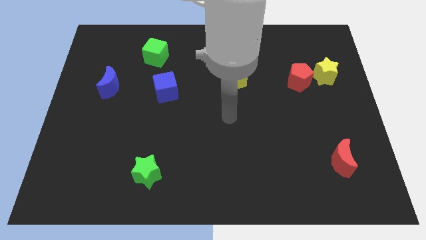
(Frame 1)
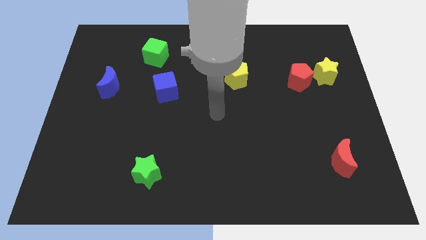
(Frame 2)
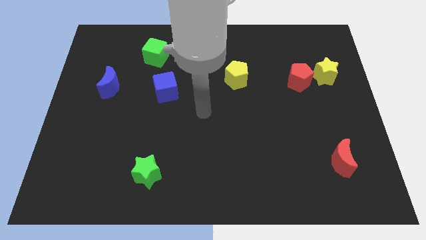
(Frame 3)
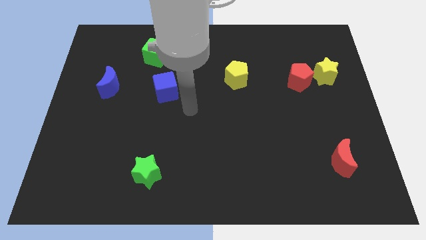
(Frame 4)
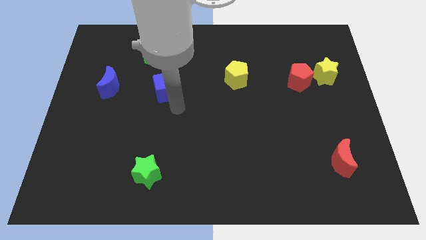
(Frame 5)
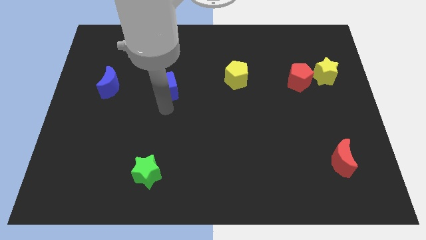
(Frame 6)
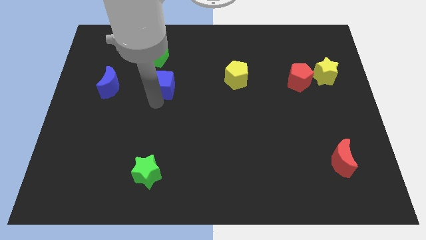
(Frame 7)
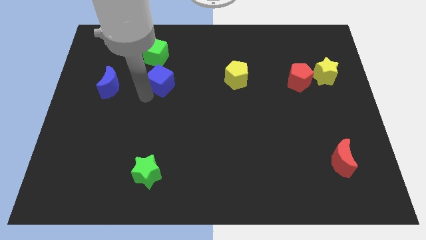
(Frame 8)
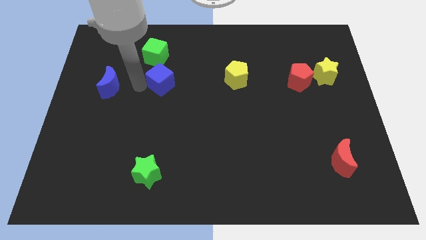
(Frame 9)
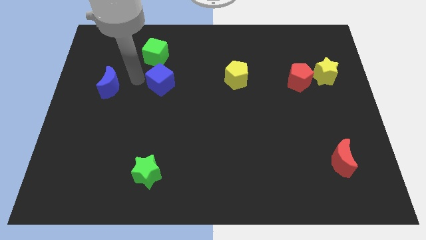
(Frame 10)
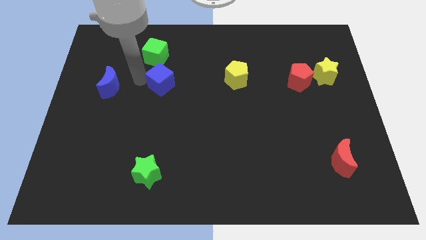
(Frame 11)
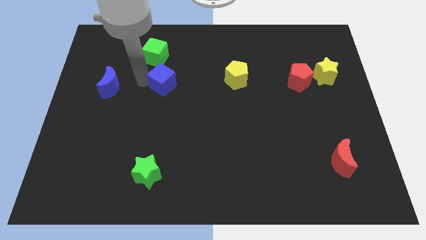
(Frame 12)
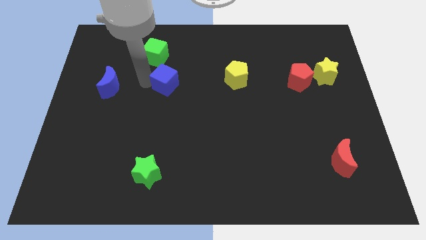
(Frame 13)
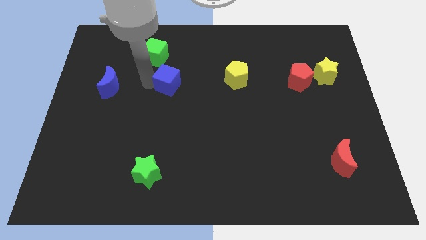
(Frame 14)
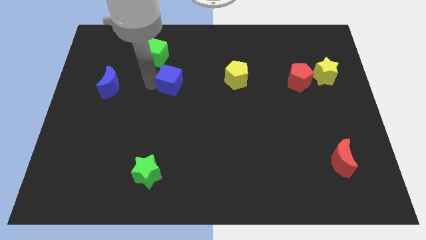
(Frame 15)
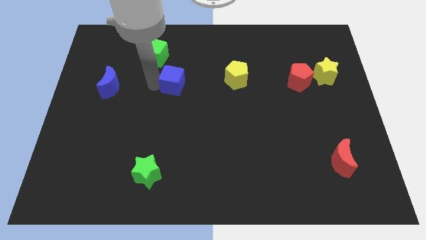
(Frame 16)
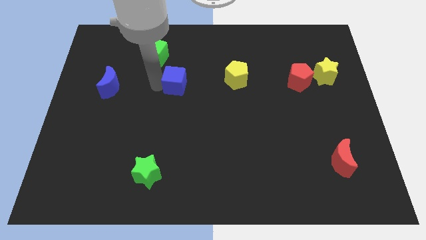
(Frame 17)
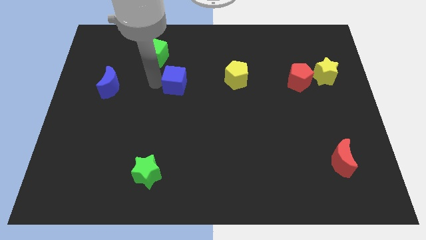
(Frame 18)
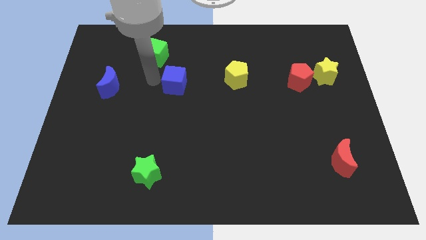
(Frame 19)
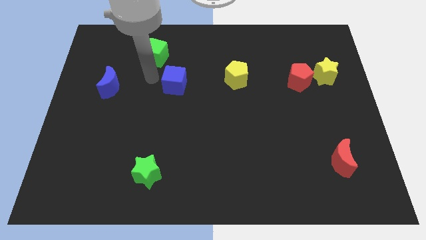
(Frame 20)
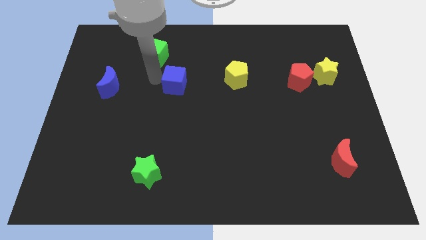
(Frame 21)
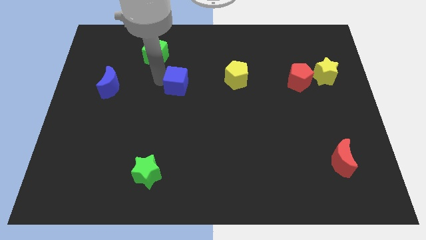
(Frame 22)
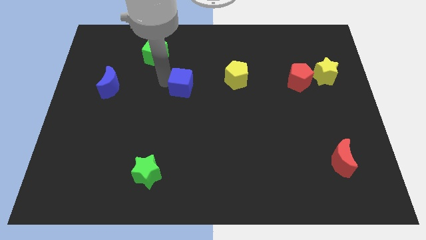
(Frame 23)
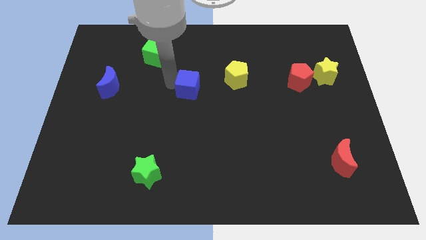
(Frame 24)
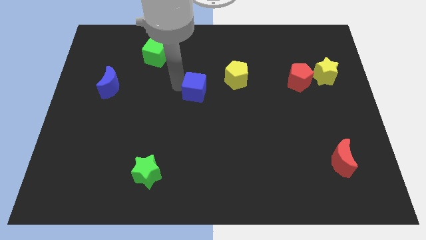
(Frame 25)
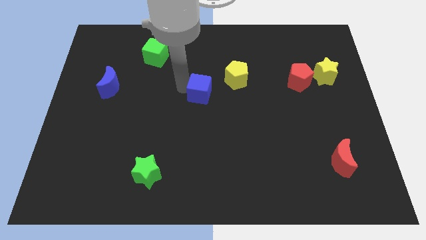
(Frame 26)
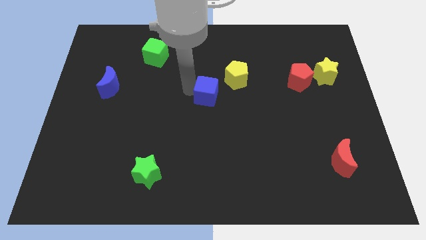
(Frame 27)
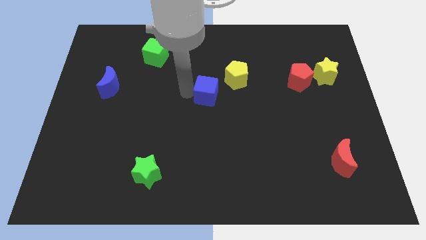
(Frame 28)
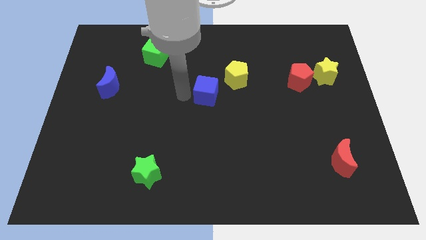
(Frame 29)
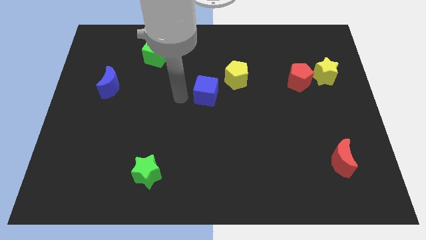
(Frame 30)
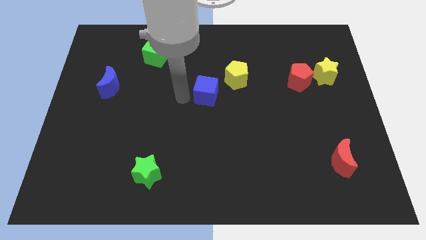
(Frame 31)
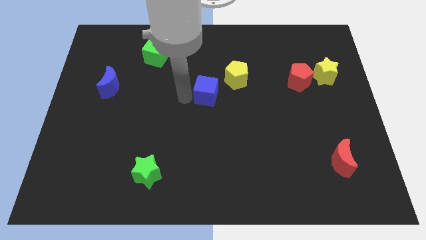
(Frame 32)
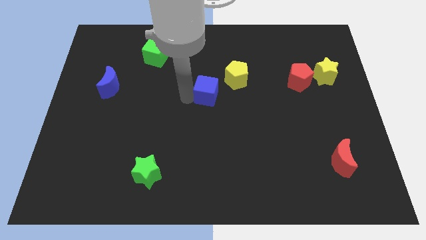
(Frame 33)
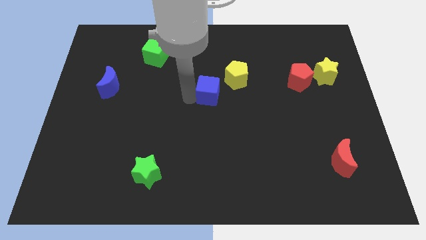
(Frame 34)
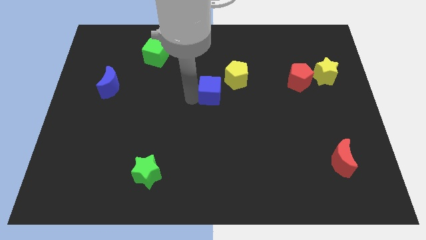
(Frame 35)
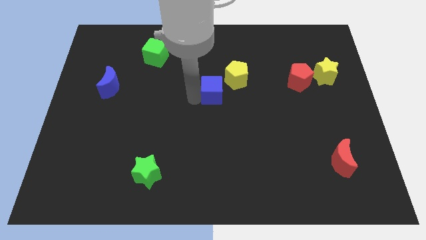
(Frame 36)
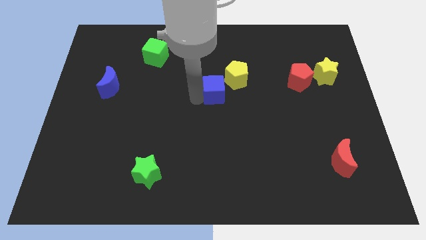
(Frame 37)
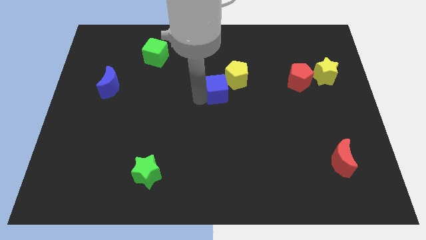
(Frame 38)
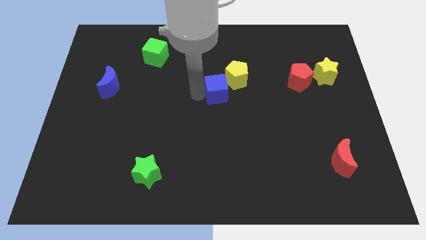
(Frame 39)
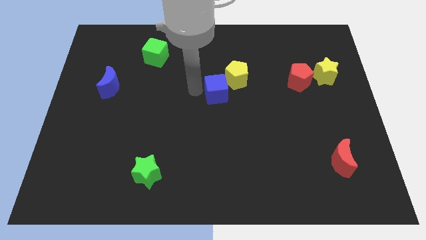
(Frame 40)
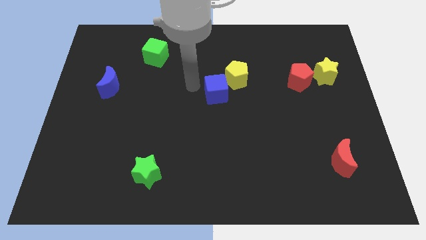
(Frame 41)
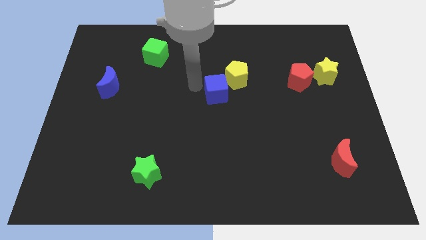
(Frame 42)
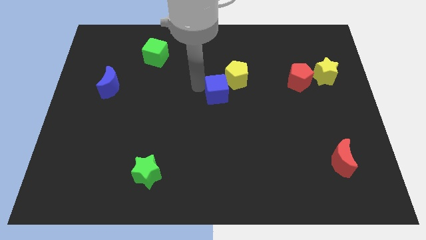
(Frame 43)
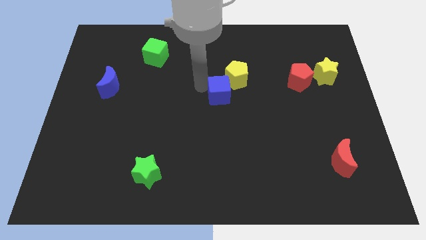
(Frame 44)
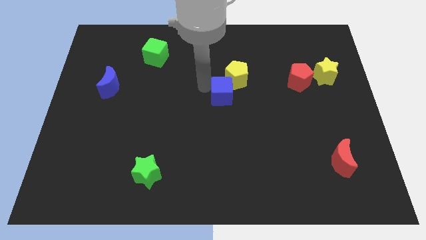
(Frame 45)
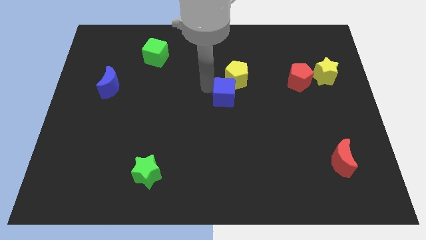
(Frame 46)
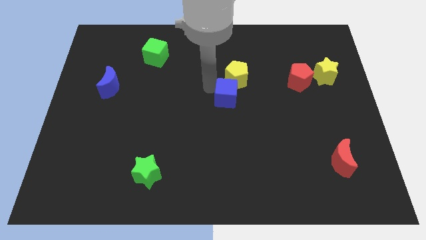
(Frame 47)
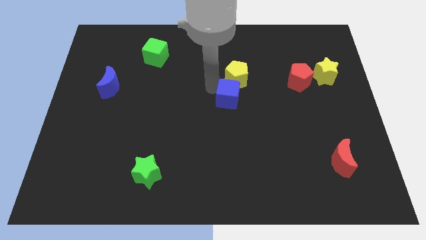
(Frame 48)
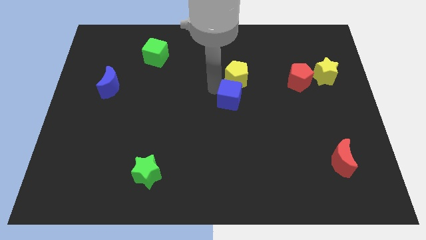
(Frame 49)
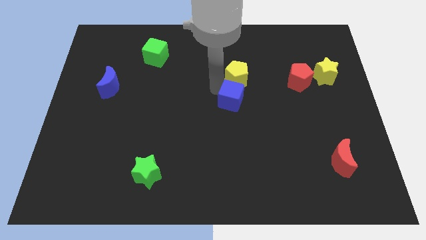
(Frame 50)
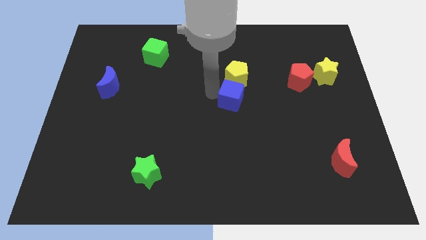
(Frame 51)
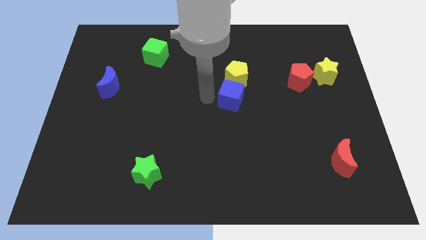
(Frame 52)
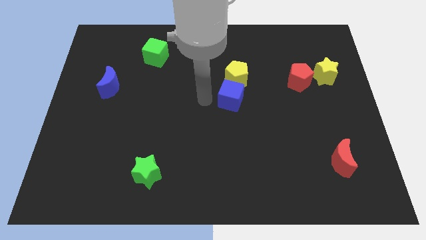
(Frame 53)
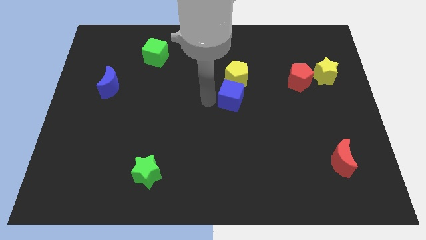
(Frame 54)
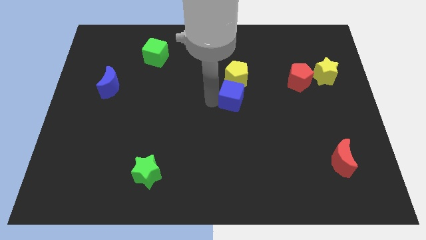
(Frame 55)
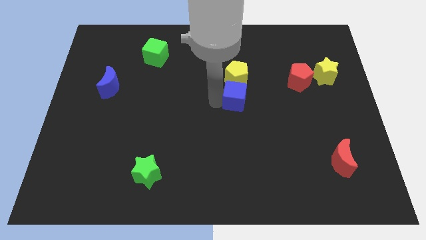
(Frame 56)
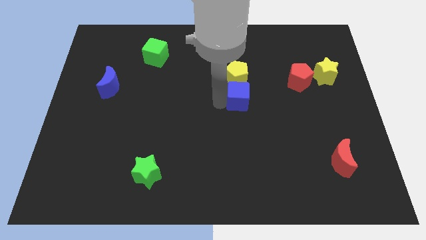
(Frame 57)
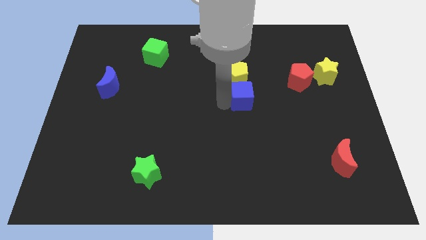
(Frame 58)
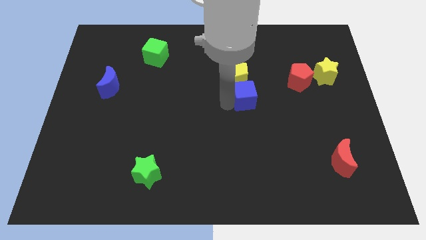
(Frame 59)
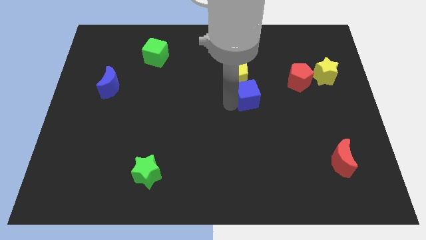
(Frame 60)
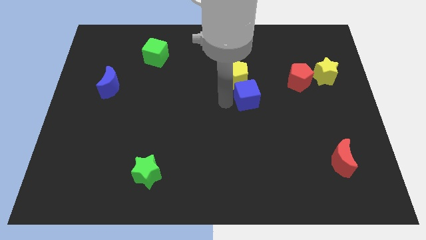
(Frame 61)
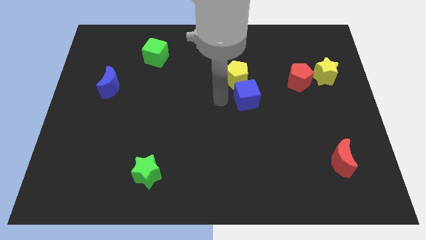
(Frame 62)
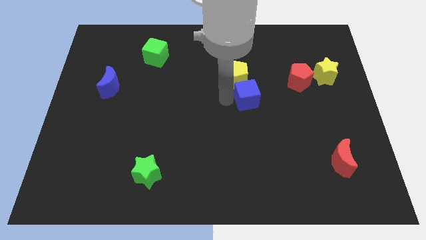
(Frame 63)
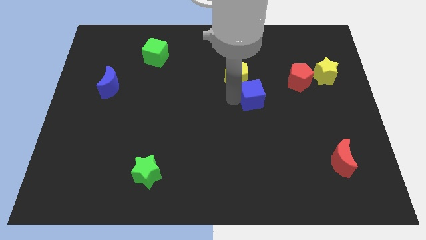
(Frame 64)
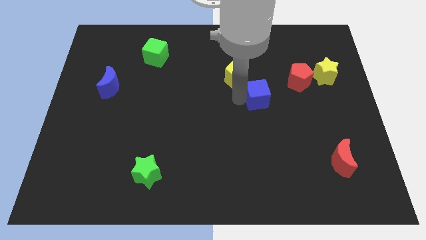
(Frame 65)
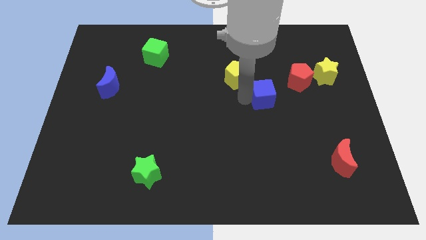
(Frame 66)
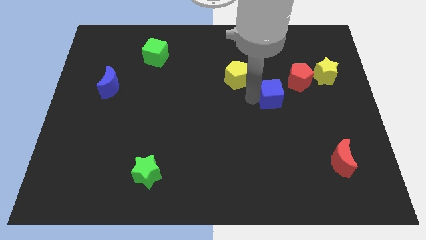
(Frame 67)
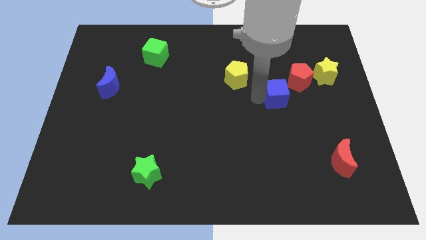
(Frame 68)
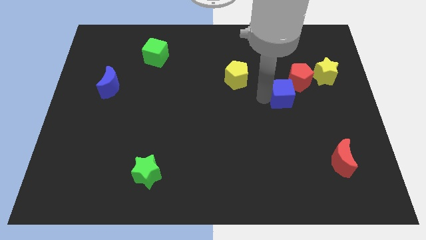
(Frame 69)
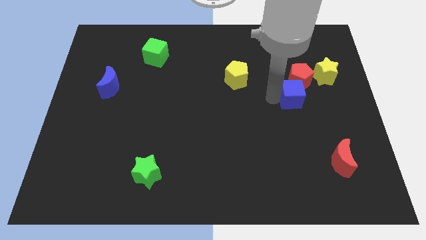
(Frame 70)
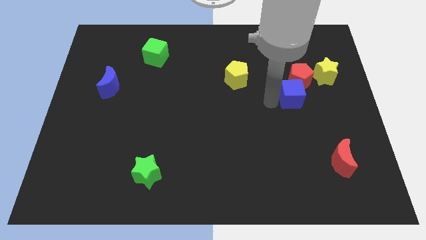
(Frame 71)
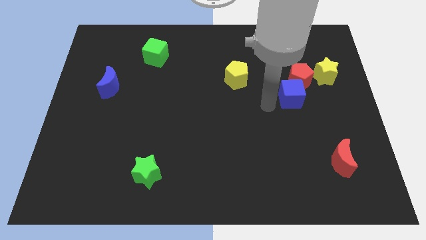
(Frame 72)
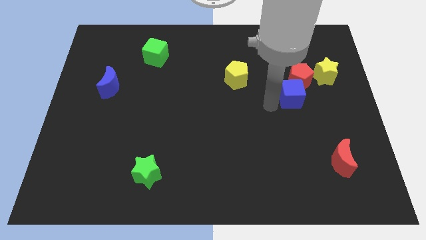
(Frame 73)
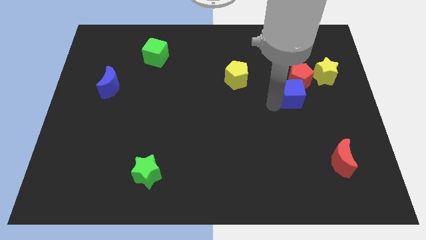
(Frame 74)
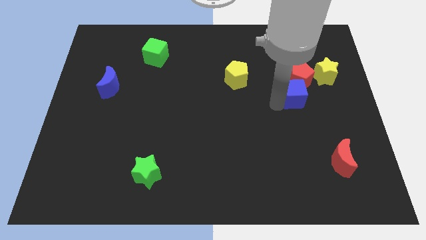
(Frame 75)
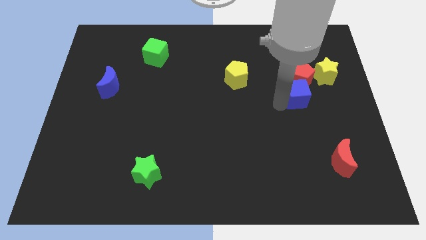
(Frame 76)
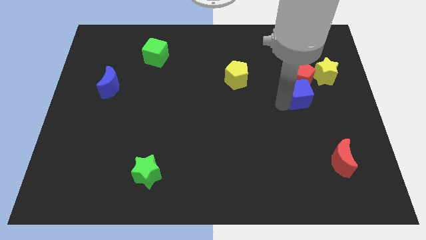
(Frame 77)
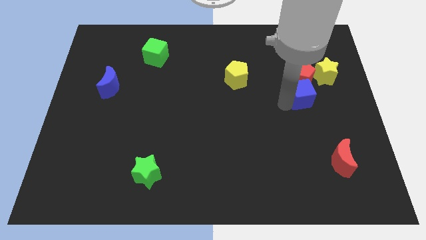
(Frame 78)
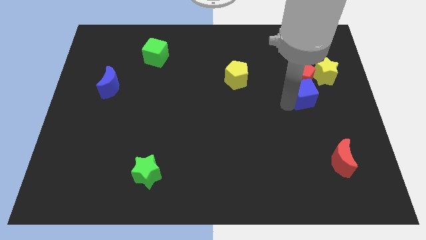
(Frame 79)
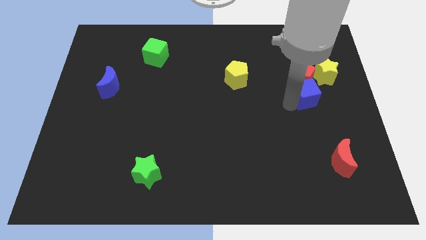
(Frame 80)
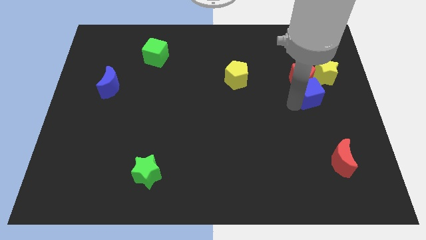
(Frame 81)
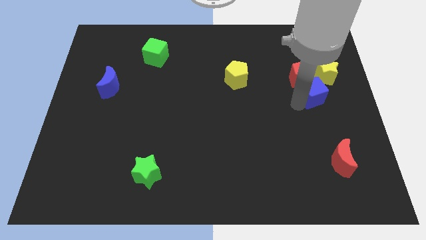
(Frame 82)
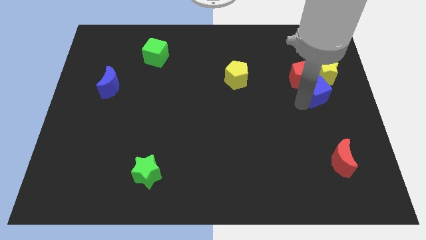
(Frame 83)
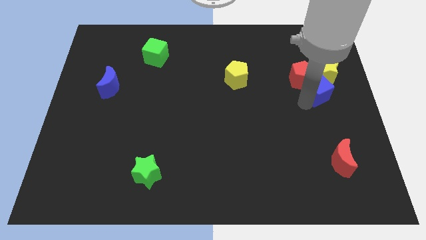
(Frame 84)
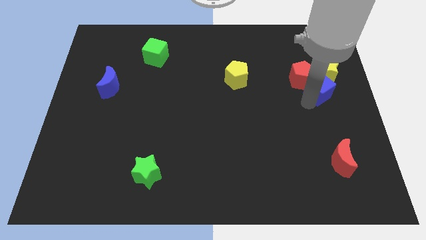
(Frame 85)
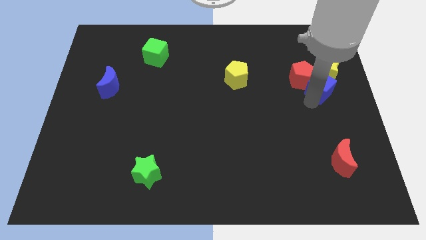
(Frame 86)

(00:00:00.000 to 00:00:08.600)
put the blue cube to the yellow star
